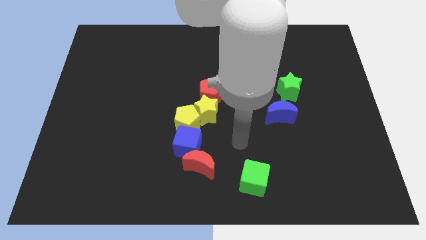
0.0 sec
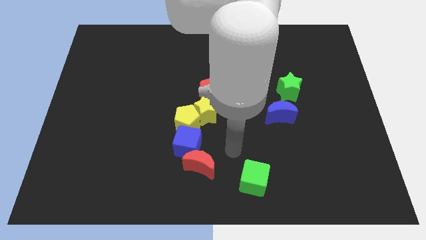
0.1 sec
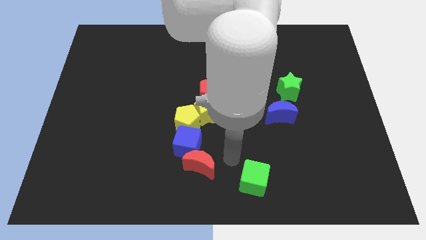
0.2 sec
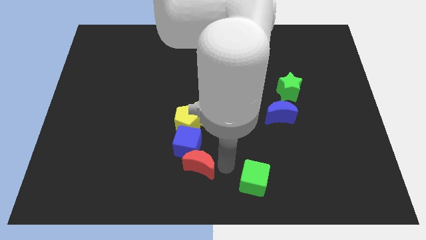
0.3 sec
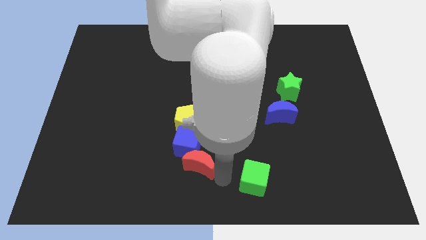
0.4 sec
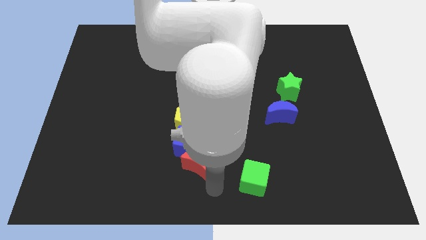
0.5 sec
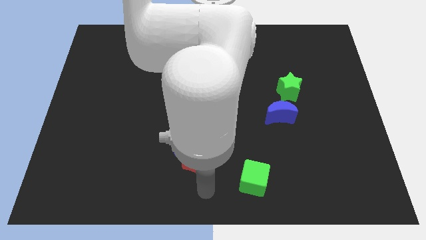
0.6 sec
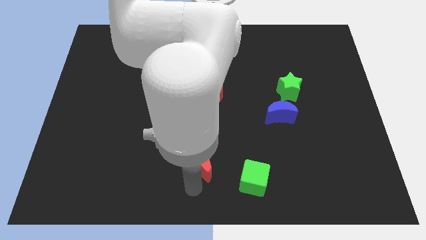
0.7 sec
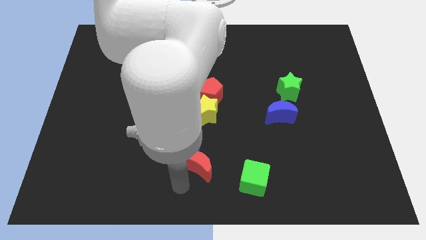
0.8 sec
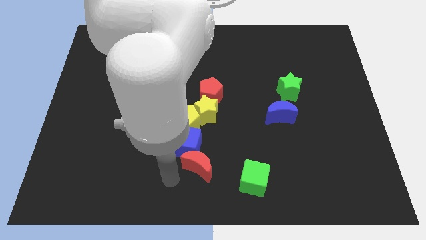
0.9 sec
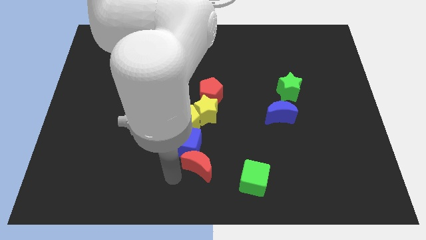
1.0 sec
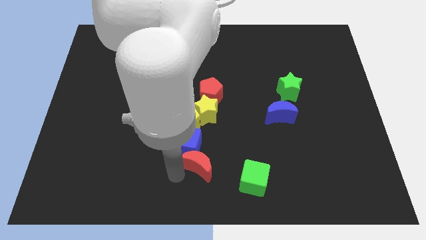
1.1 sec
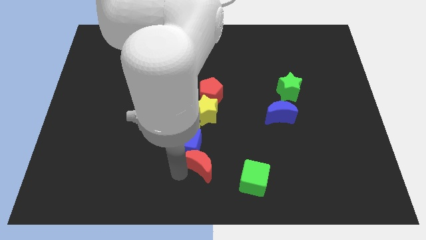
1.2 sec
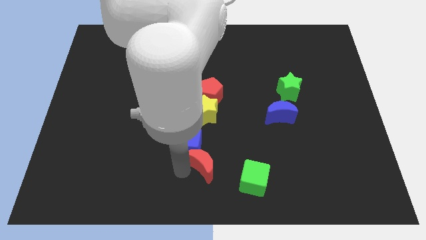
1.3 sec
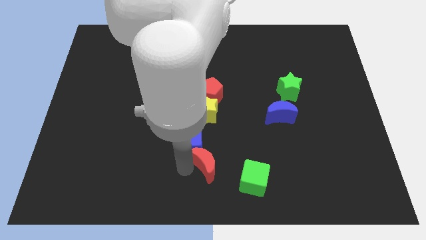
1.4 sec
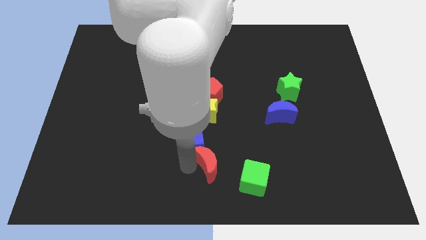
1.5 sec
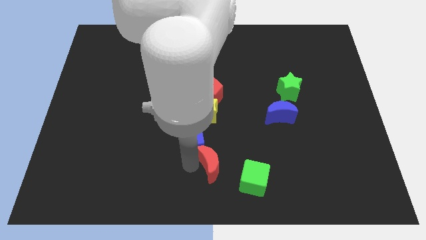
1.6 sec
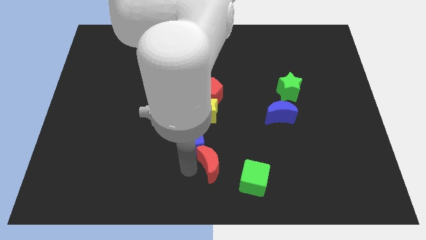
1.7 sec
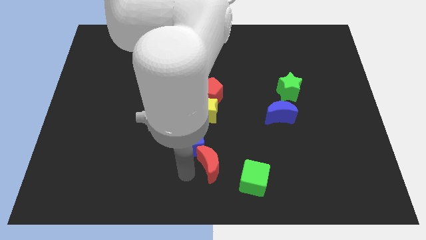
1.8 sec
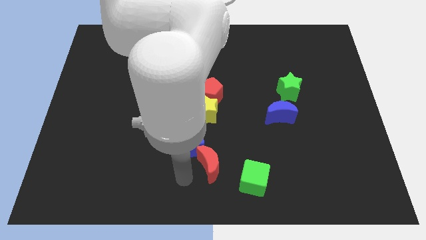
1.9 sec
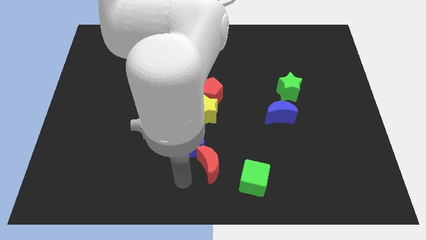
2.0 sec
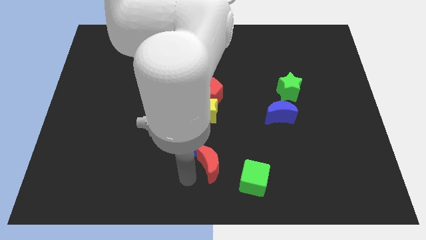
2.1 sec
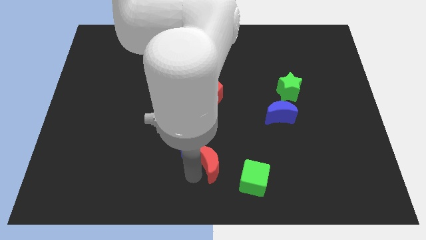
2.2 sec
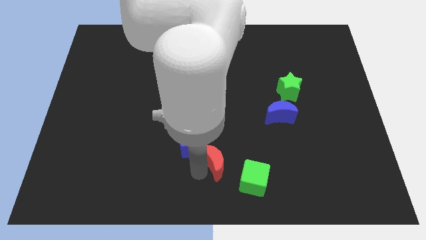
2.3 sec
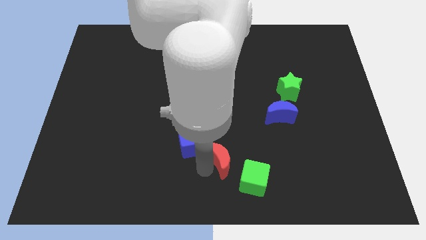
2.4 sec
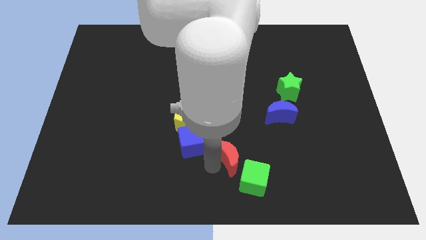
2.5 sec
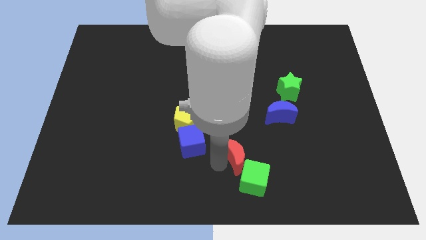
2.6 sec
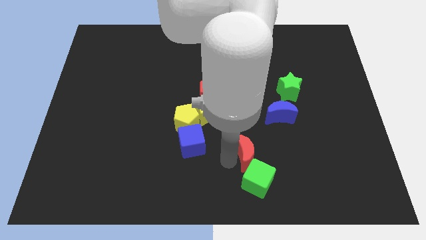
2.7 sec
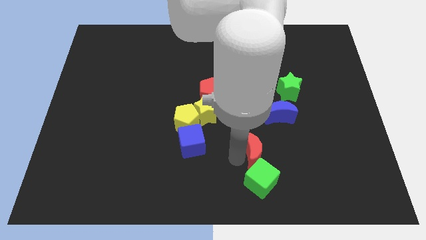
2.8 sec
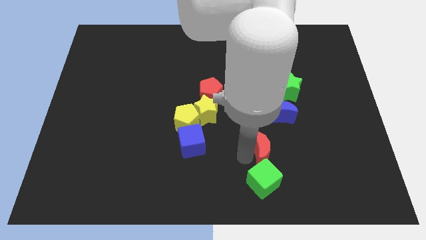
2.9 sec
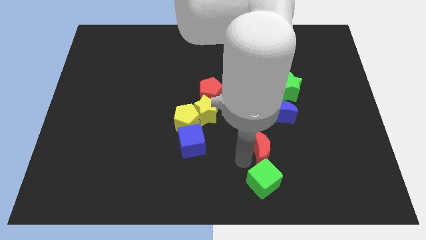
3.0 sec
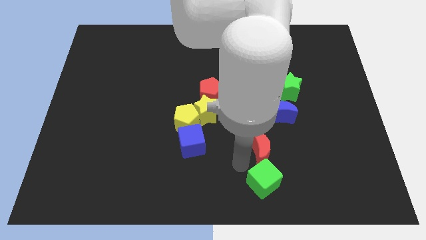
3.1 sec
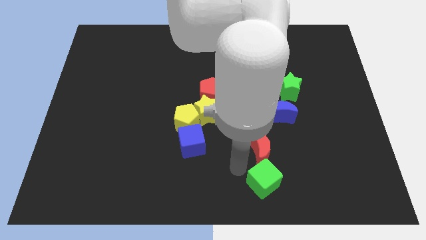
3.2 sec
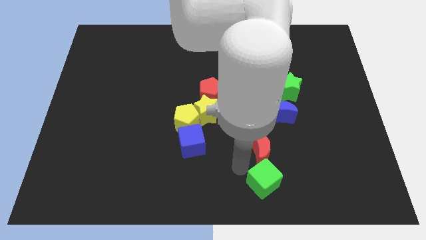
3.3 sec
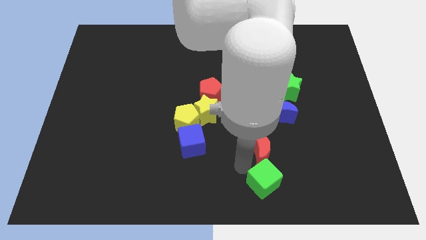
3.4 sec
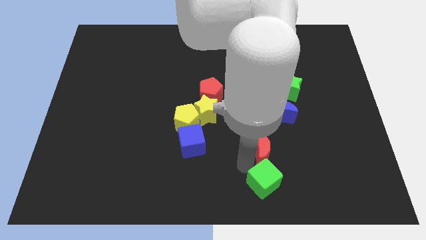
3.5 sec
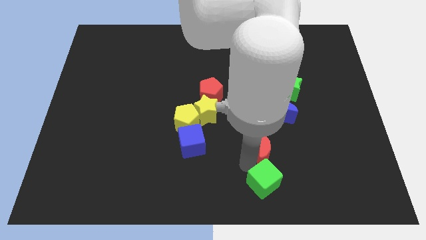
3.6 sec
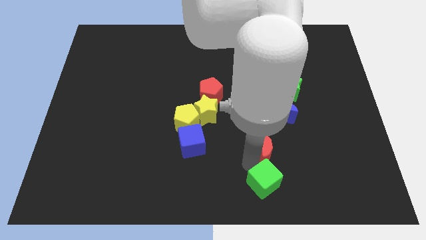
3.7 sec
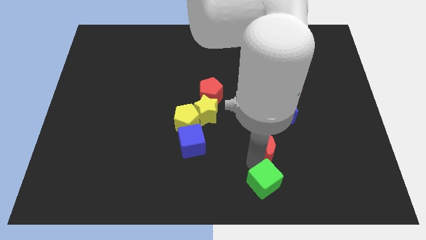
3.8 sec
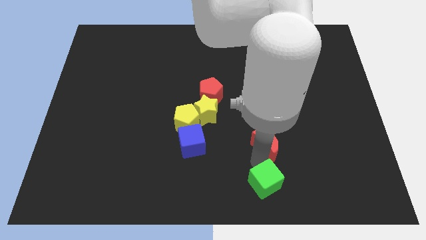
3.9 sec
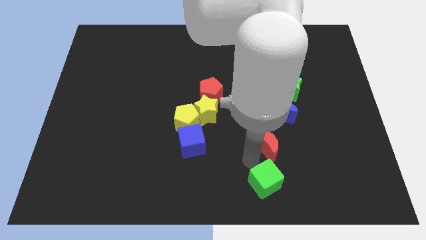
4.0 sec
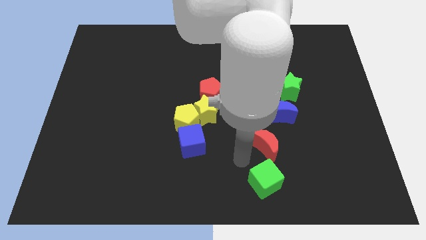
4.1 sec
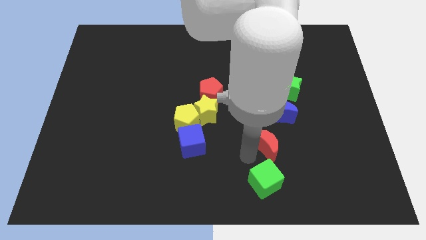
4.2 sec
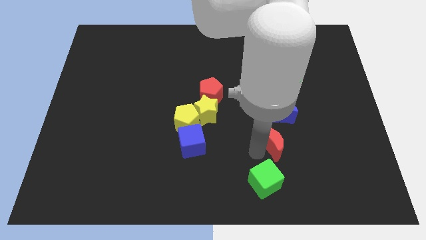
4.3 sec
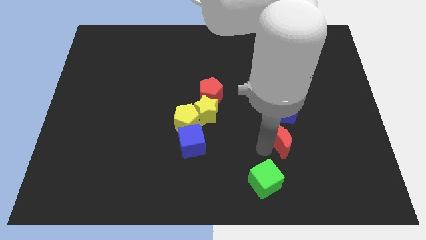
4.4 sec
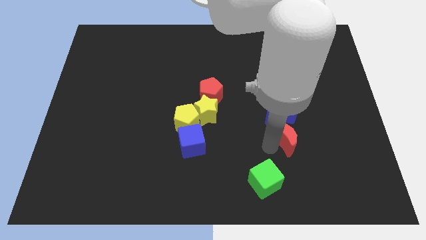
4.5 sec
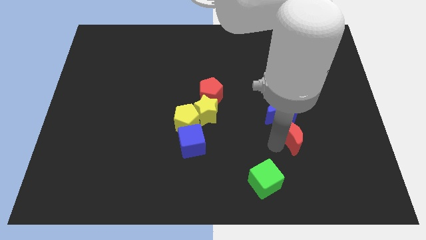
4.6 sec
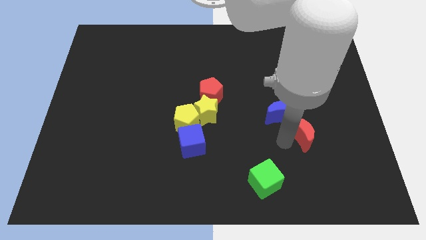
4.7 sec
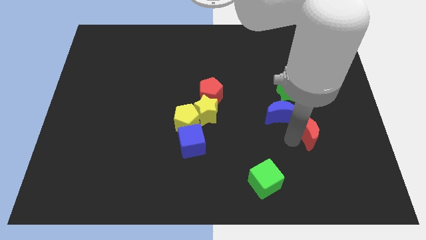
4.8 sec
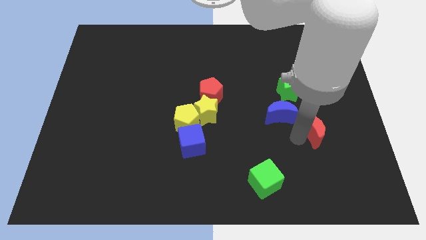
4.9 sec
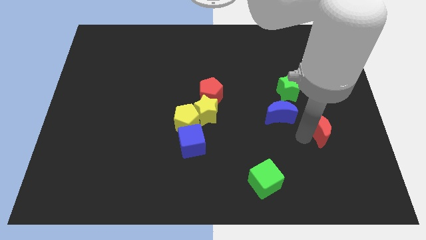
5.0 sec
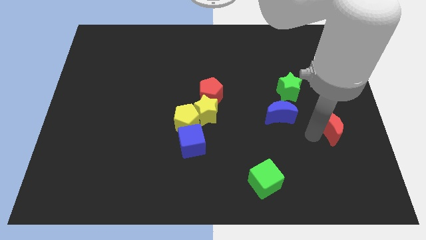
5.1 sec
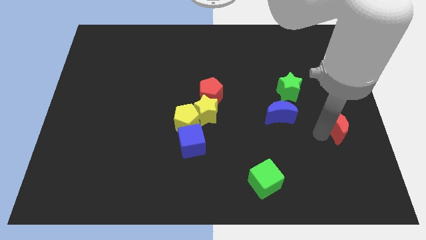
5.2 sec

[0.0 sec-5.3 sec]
push the red moon to the right side
